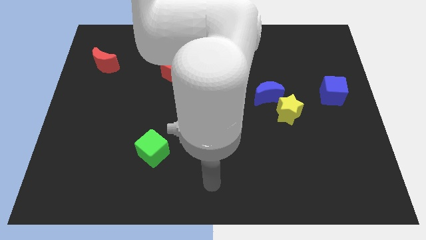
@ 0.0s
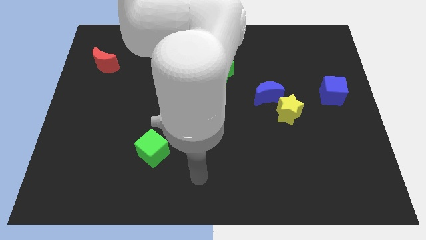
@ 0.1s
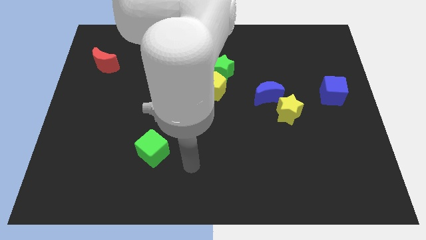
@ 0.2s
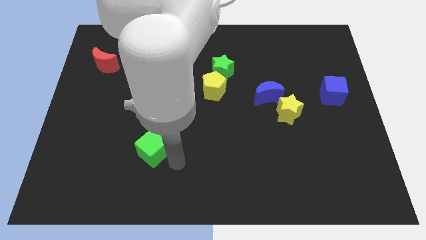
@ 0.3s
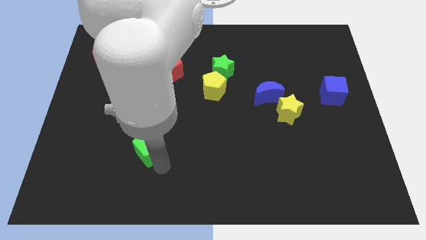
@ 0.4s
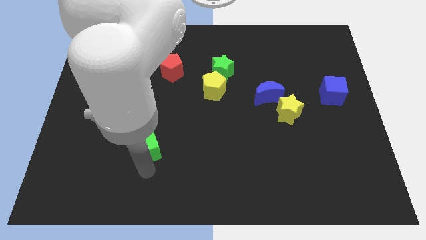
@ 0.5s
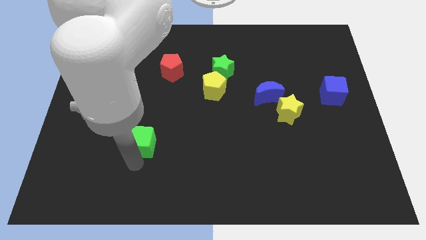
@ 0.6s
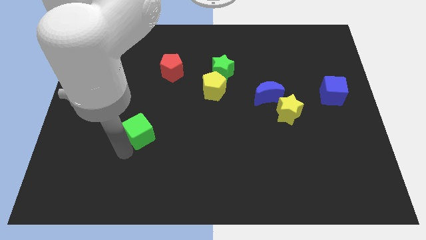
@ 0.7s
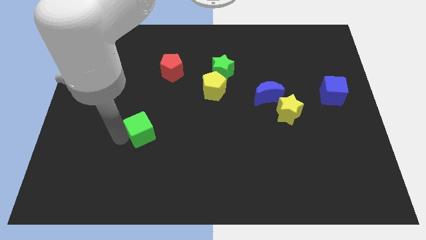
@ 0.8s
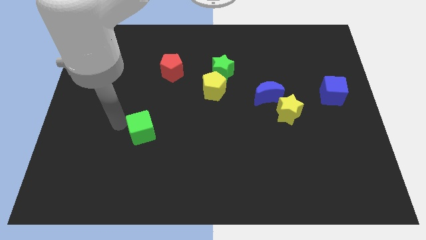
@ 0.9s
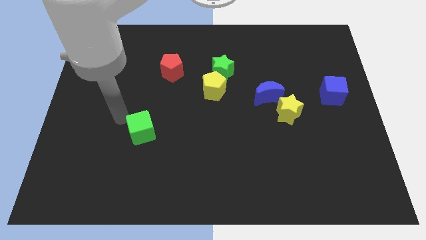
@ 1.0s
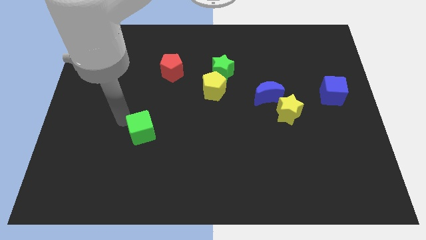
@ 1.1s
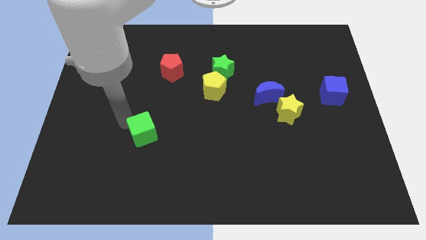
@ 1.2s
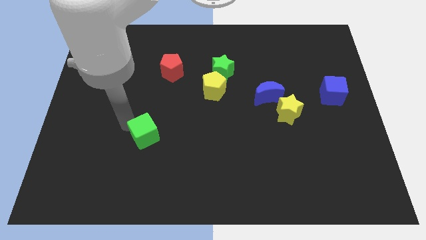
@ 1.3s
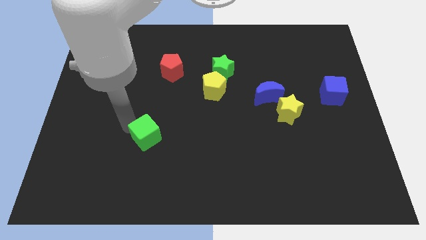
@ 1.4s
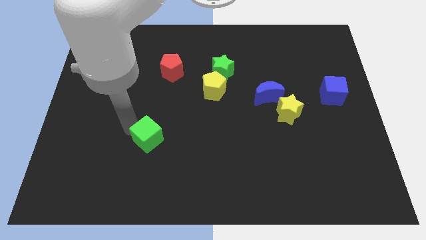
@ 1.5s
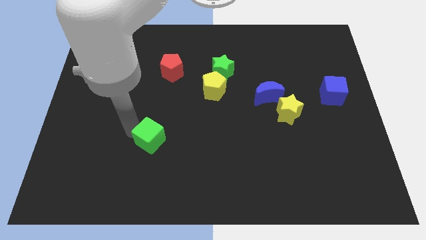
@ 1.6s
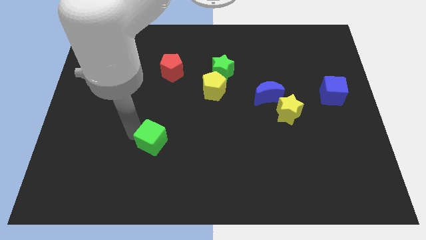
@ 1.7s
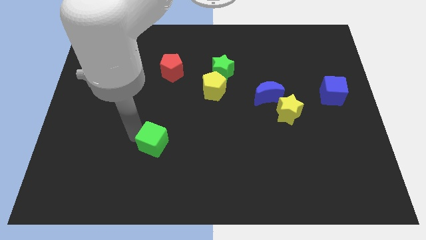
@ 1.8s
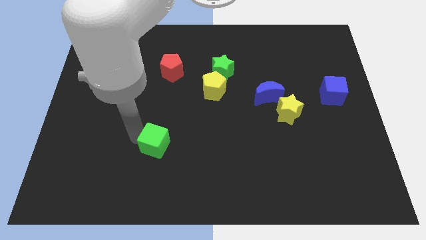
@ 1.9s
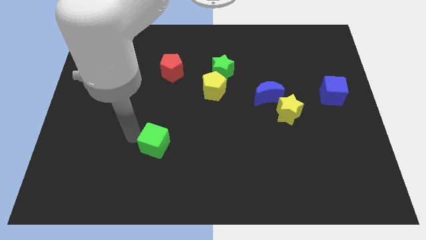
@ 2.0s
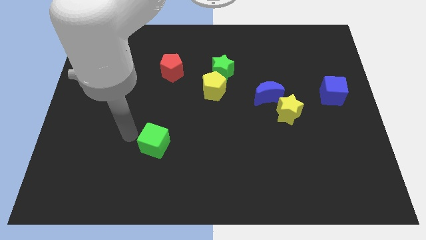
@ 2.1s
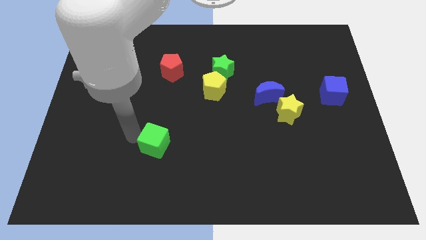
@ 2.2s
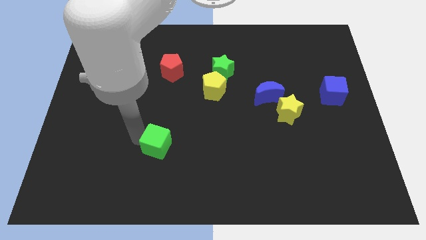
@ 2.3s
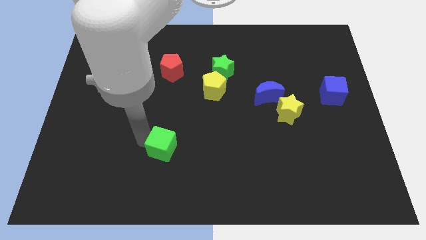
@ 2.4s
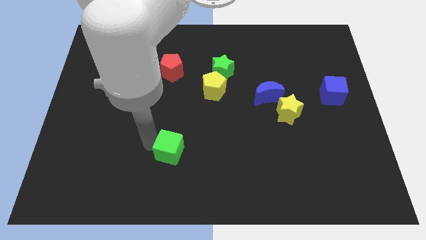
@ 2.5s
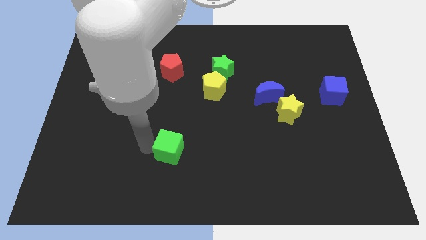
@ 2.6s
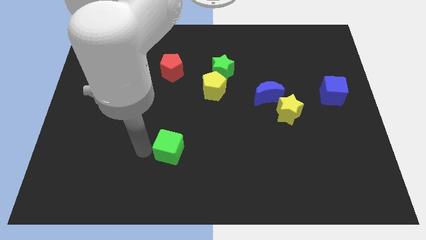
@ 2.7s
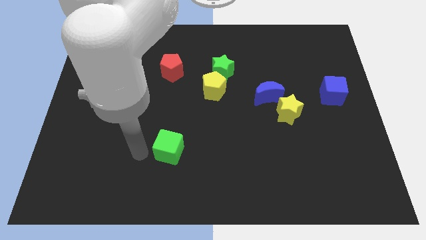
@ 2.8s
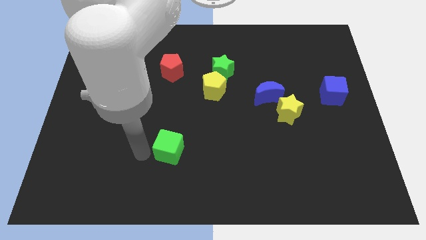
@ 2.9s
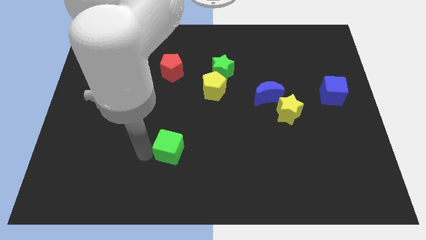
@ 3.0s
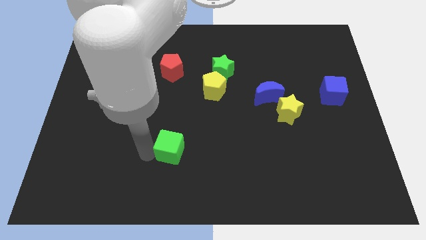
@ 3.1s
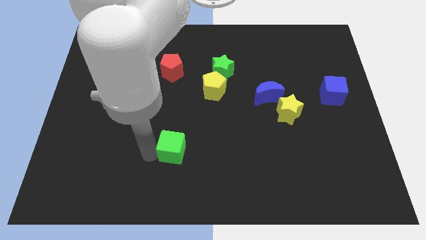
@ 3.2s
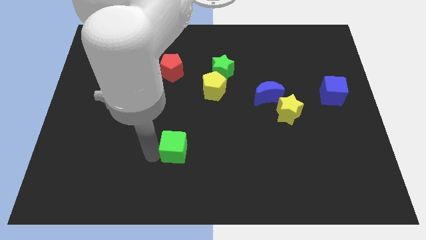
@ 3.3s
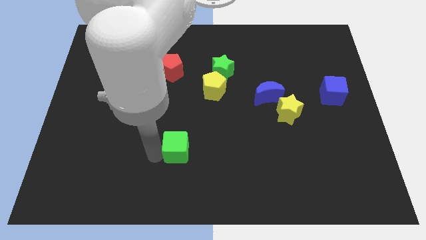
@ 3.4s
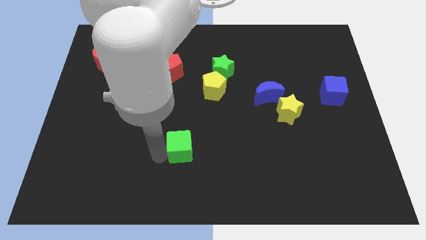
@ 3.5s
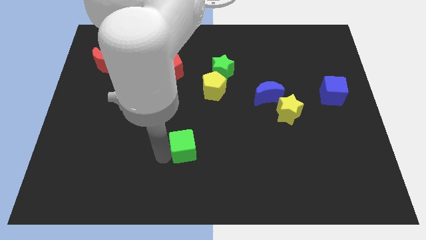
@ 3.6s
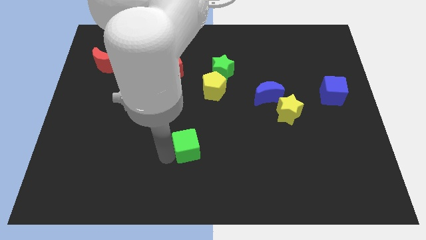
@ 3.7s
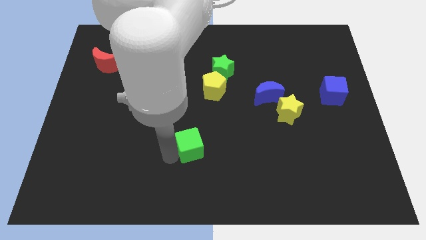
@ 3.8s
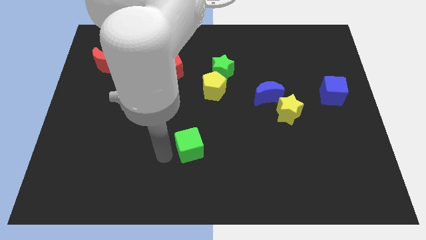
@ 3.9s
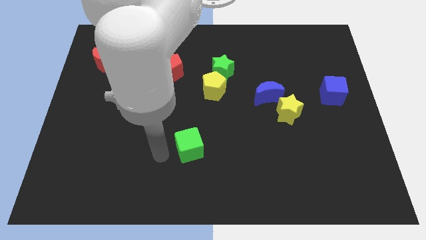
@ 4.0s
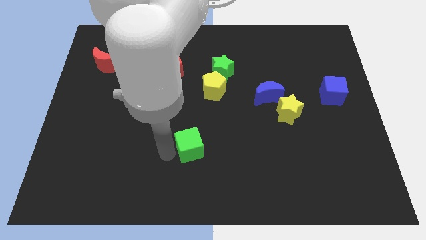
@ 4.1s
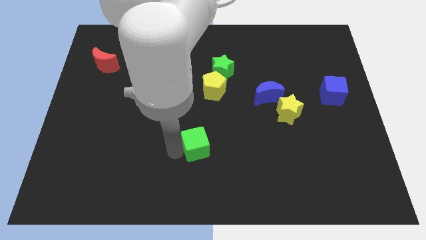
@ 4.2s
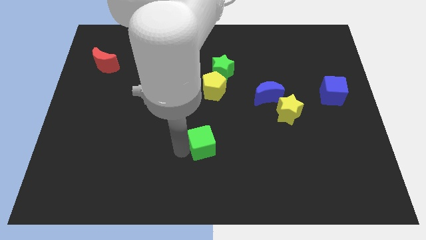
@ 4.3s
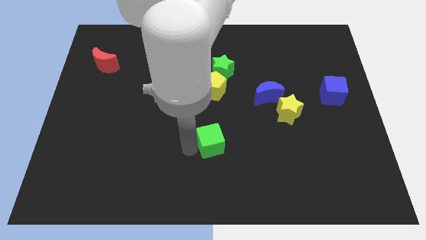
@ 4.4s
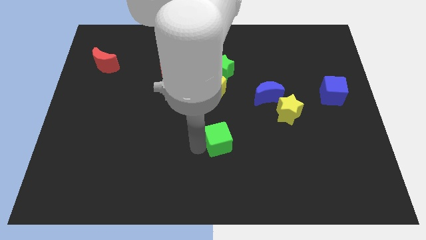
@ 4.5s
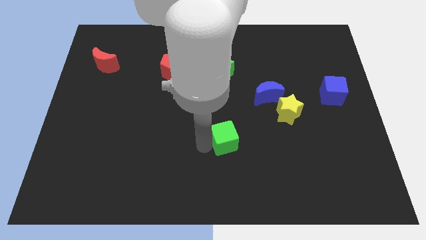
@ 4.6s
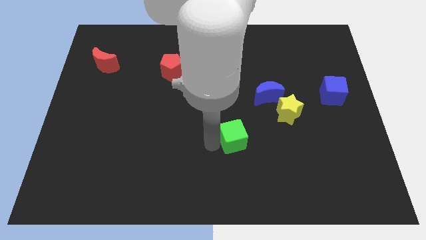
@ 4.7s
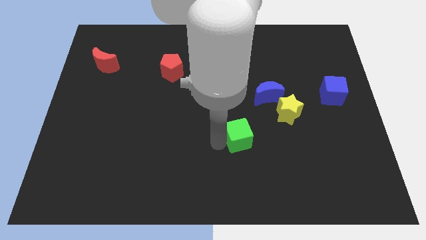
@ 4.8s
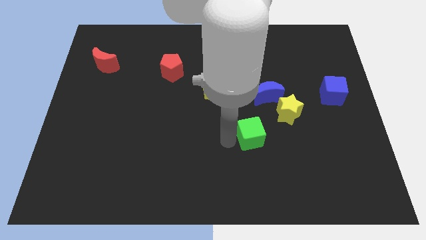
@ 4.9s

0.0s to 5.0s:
put the green cube below the blue moon

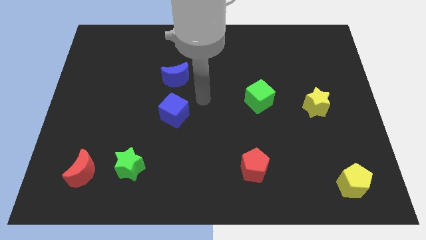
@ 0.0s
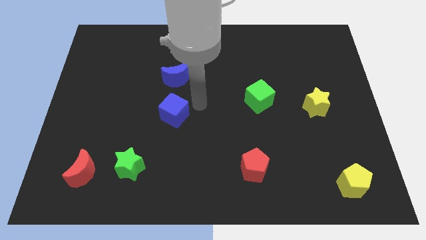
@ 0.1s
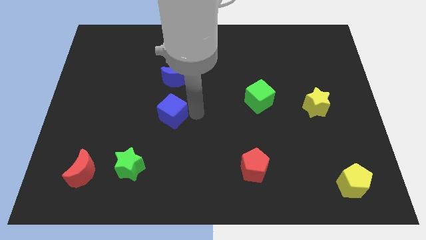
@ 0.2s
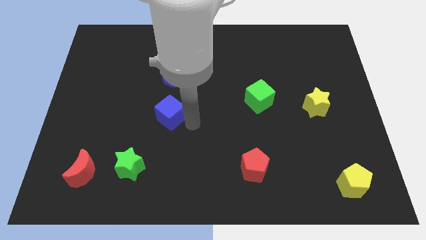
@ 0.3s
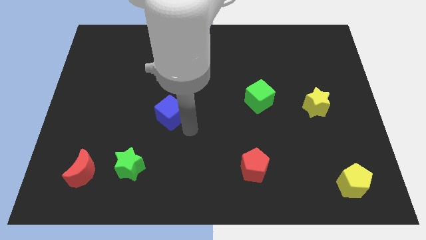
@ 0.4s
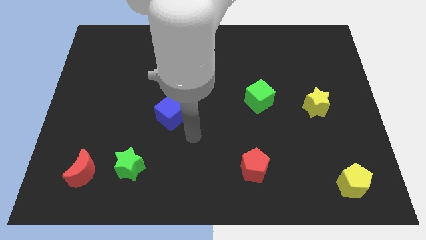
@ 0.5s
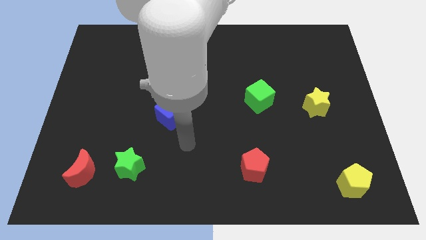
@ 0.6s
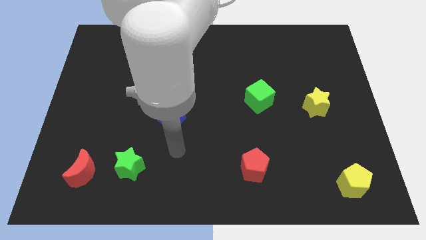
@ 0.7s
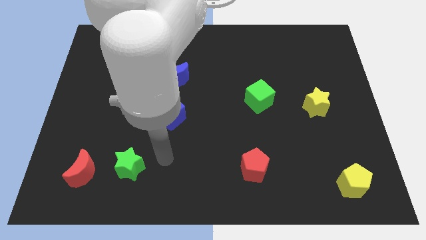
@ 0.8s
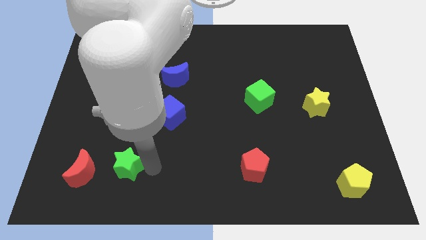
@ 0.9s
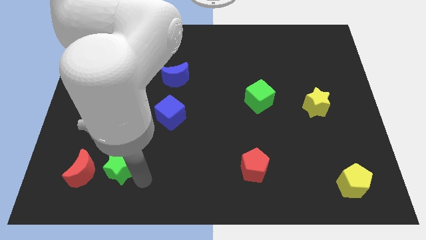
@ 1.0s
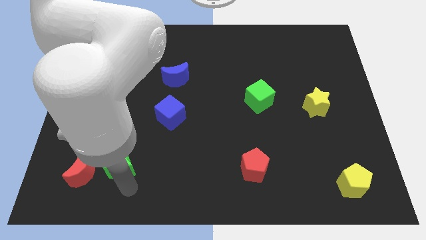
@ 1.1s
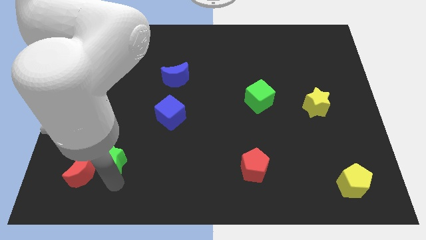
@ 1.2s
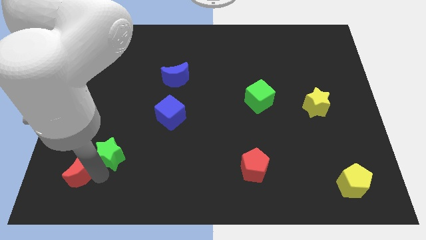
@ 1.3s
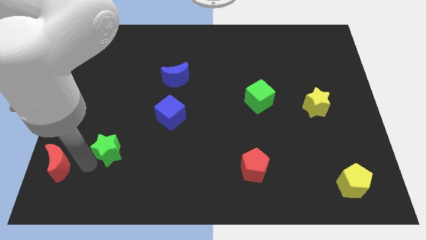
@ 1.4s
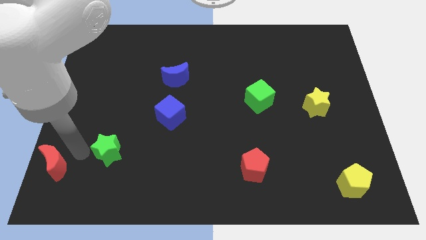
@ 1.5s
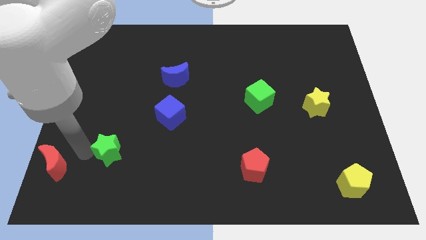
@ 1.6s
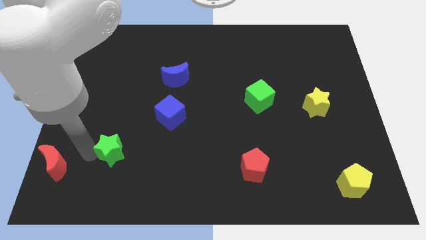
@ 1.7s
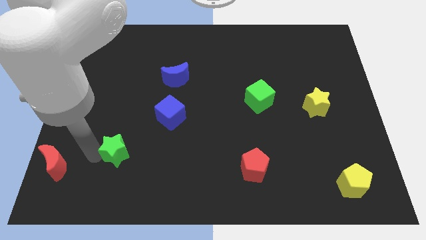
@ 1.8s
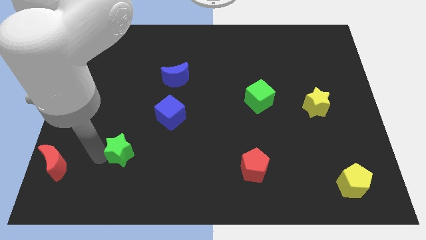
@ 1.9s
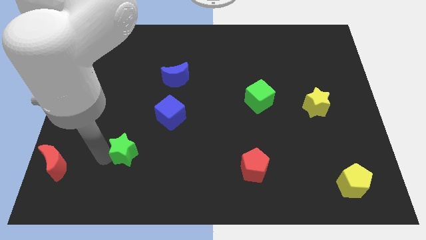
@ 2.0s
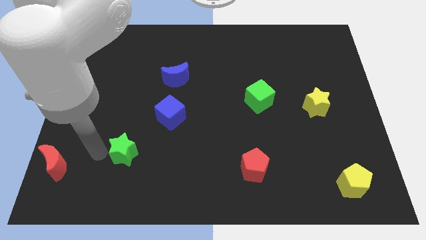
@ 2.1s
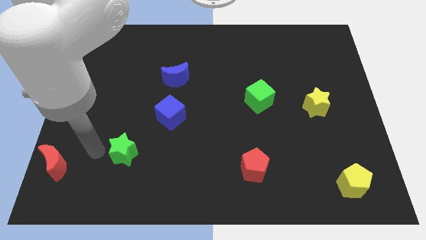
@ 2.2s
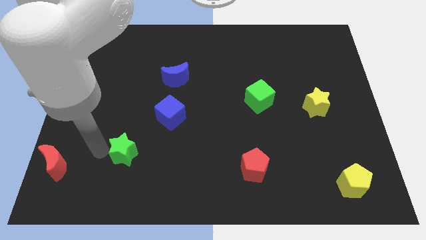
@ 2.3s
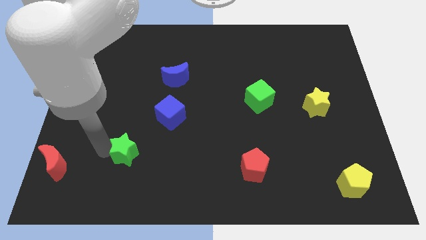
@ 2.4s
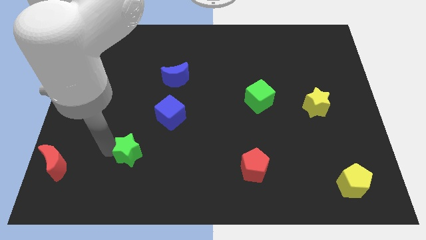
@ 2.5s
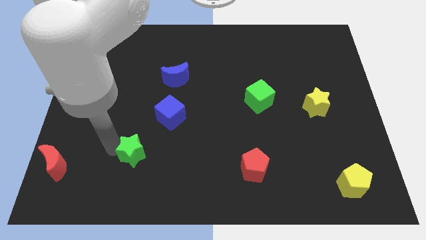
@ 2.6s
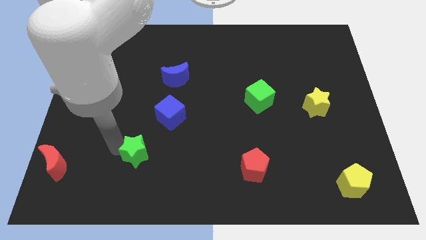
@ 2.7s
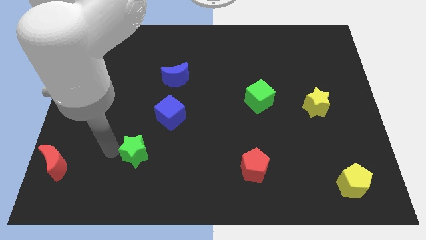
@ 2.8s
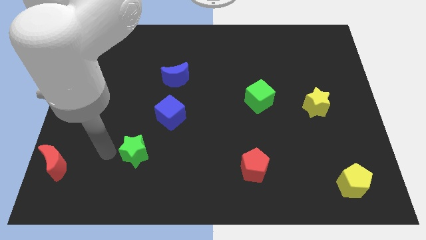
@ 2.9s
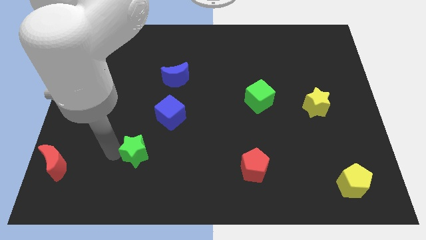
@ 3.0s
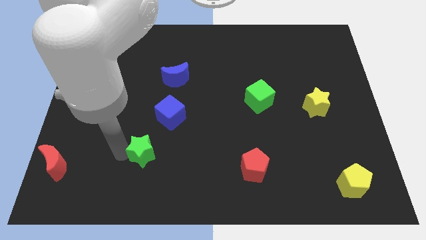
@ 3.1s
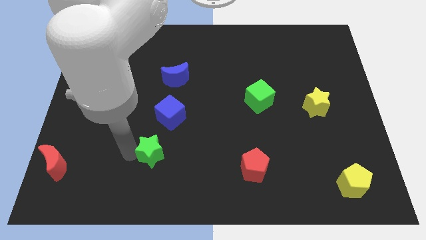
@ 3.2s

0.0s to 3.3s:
move the green star to the bottom side of the blue cube
